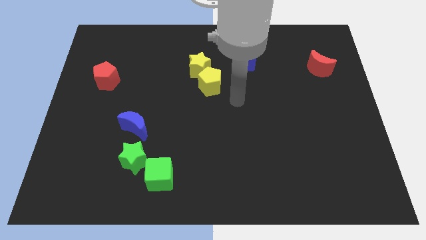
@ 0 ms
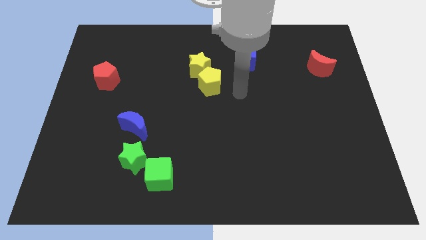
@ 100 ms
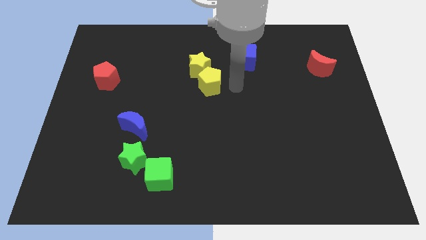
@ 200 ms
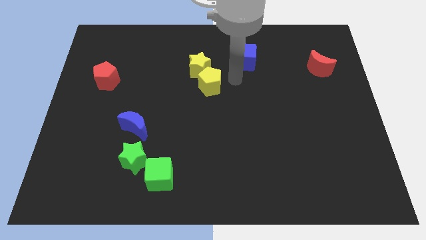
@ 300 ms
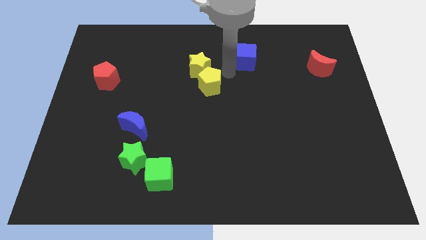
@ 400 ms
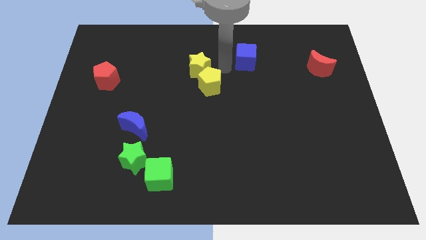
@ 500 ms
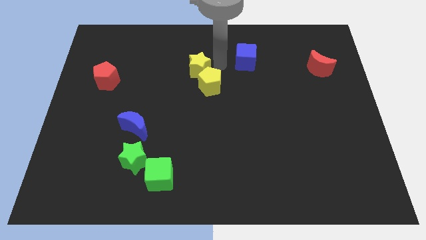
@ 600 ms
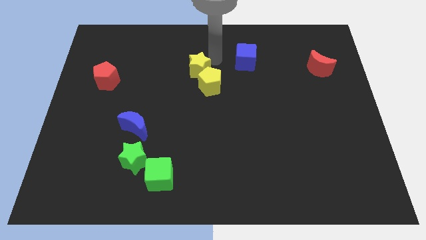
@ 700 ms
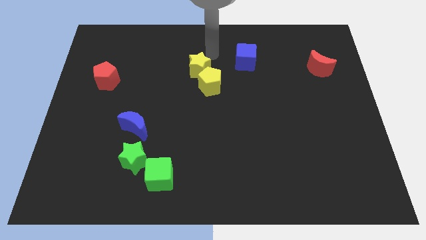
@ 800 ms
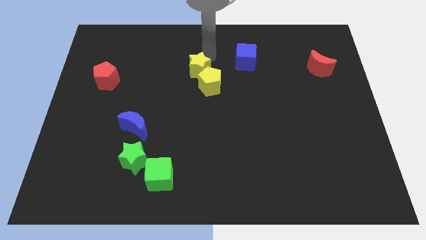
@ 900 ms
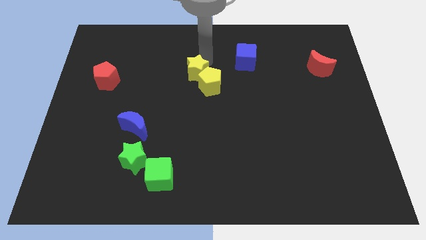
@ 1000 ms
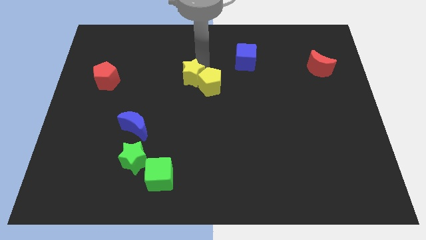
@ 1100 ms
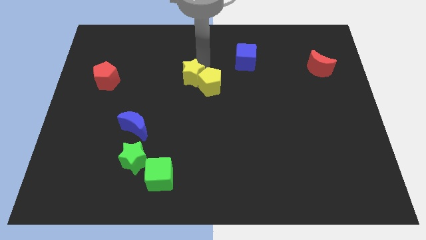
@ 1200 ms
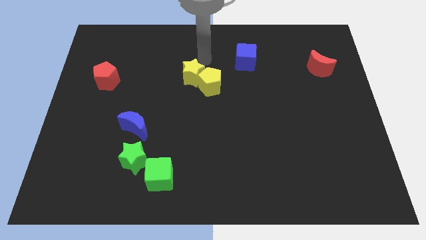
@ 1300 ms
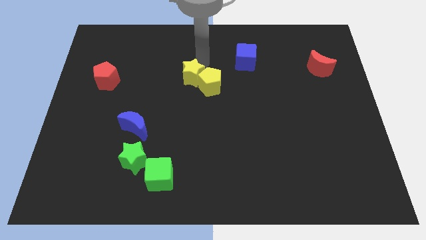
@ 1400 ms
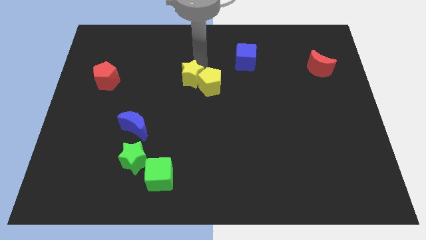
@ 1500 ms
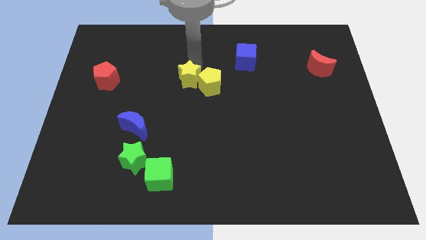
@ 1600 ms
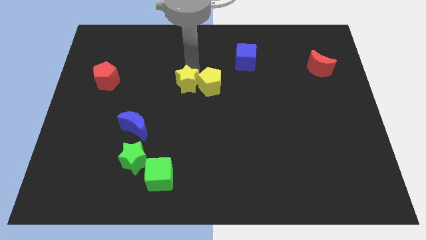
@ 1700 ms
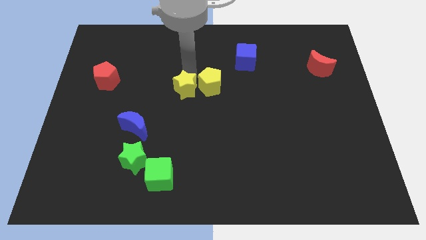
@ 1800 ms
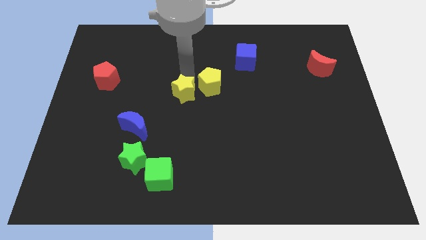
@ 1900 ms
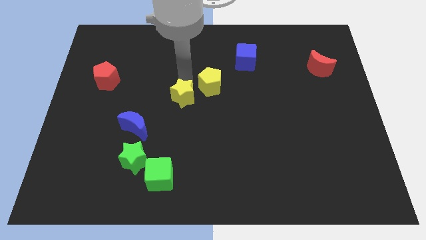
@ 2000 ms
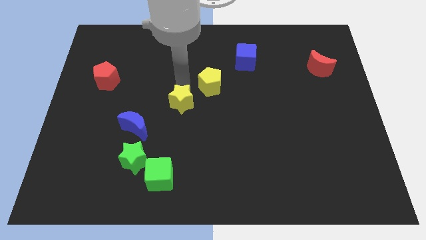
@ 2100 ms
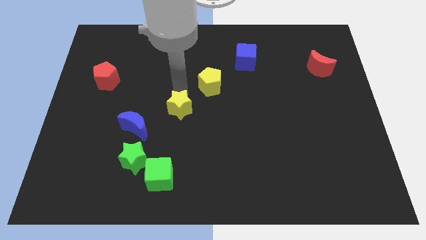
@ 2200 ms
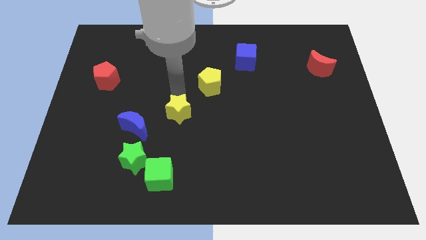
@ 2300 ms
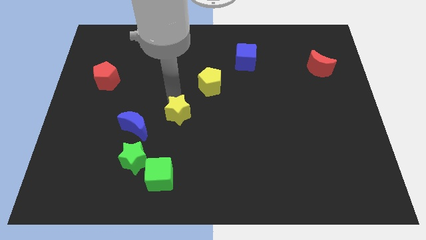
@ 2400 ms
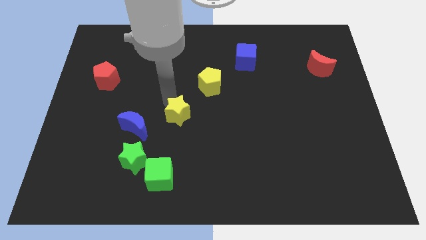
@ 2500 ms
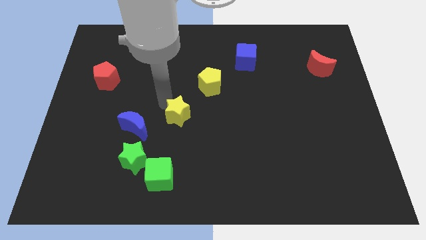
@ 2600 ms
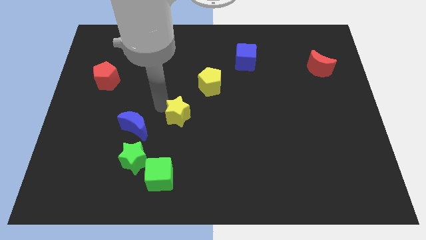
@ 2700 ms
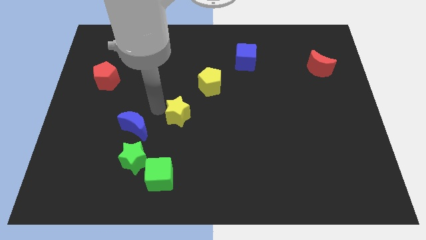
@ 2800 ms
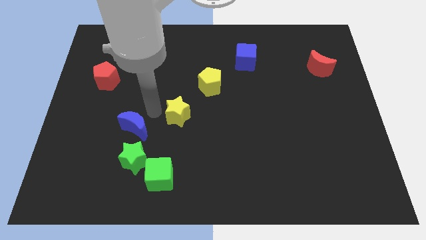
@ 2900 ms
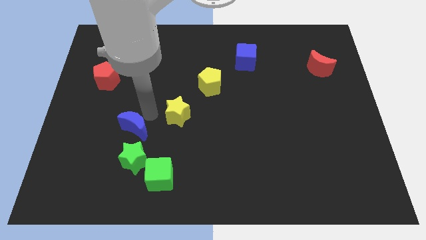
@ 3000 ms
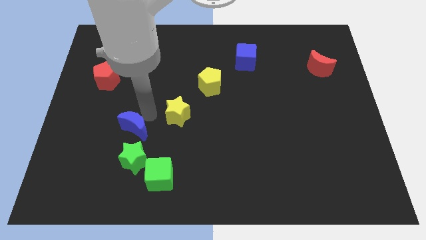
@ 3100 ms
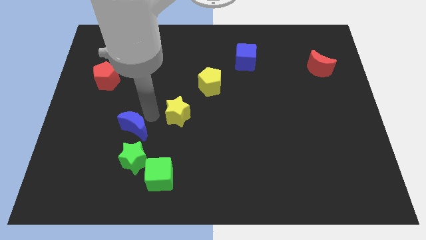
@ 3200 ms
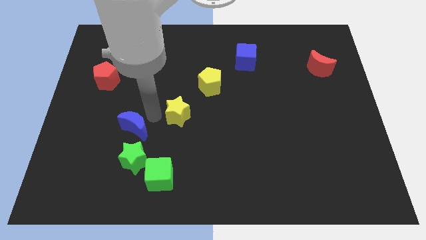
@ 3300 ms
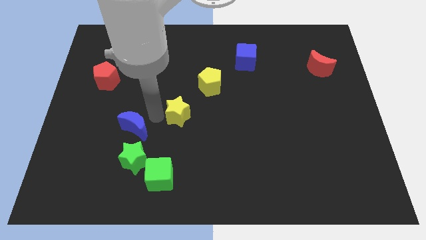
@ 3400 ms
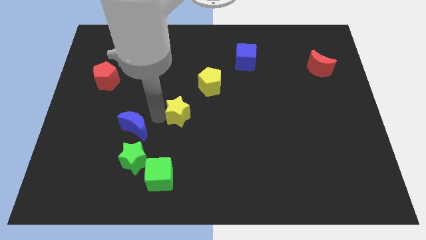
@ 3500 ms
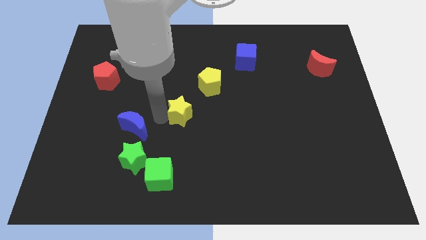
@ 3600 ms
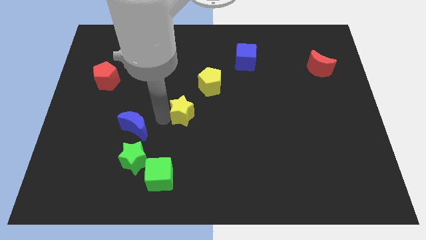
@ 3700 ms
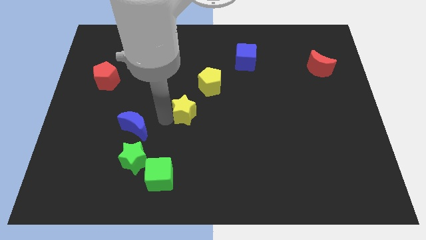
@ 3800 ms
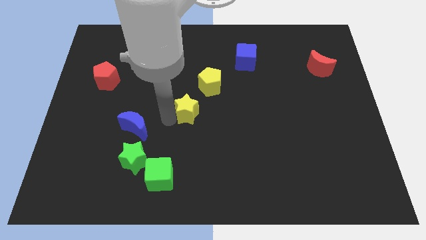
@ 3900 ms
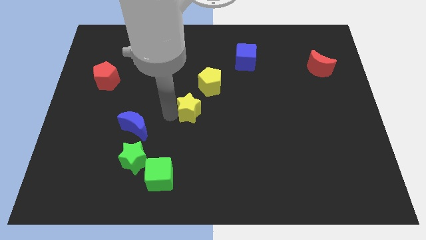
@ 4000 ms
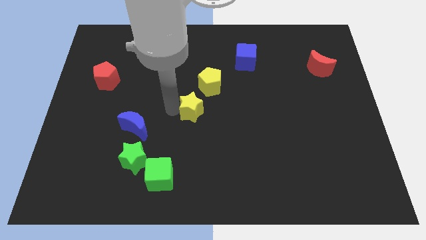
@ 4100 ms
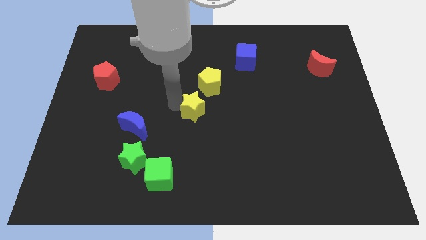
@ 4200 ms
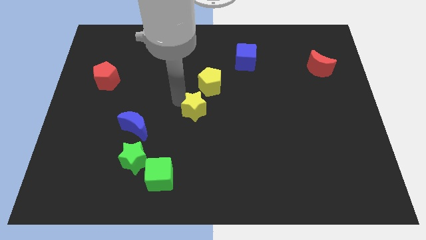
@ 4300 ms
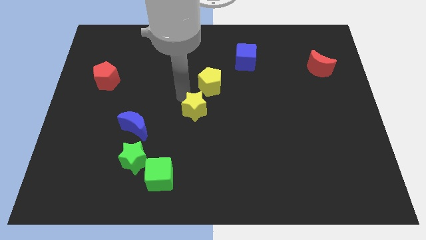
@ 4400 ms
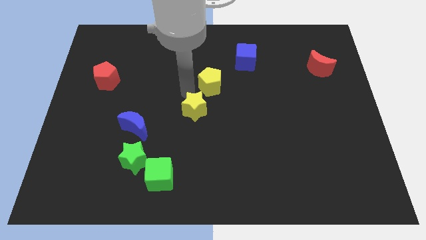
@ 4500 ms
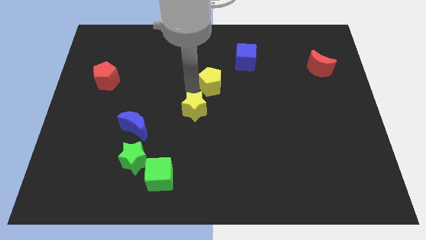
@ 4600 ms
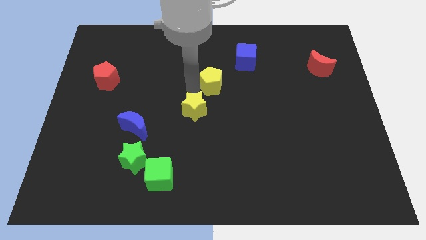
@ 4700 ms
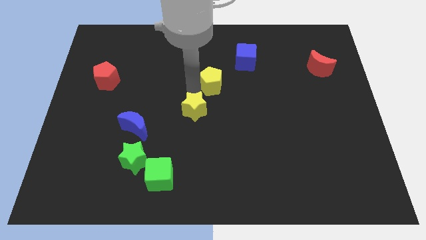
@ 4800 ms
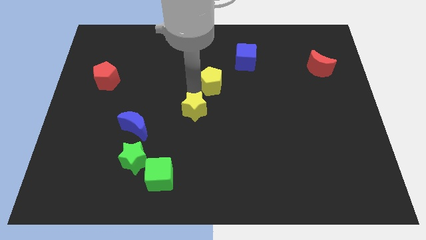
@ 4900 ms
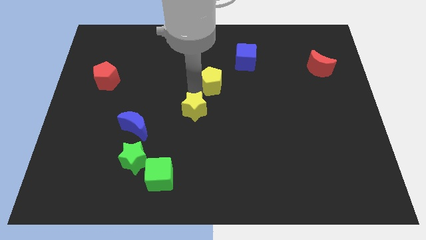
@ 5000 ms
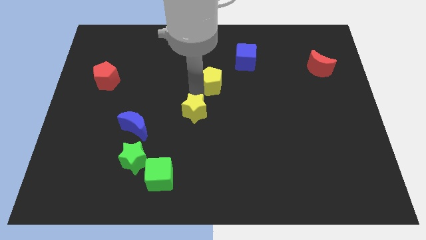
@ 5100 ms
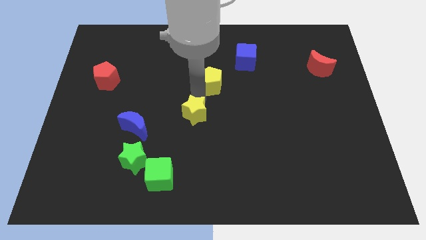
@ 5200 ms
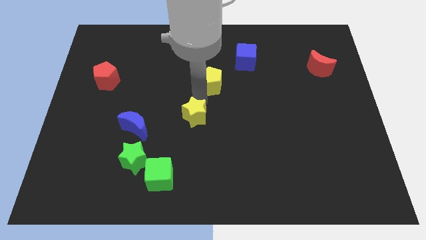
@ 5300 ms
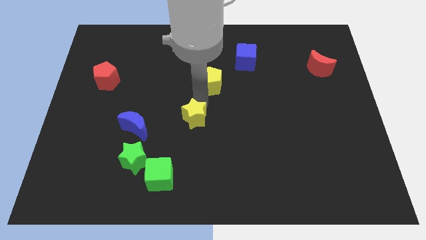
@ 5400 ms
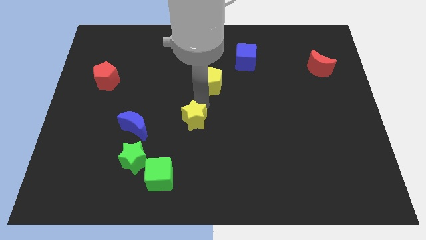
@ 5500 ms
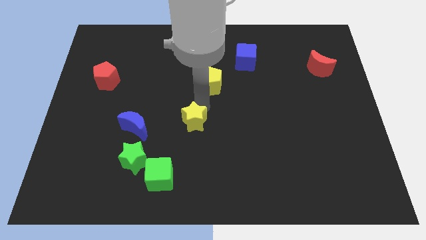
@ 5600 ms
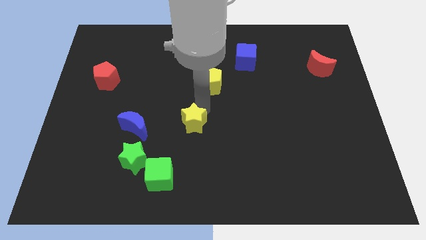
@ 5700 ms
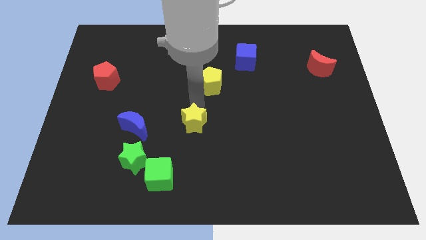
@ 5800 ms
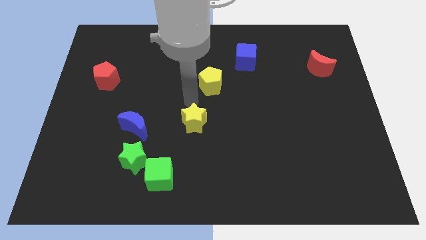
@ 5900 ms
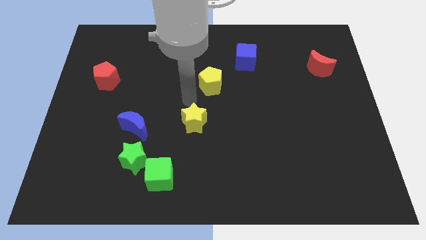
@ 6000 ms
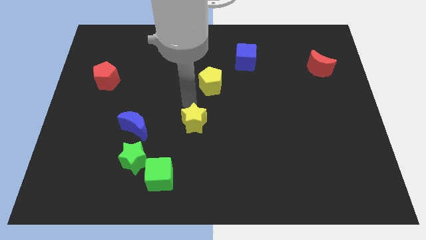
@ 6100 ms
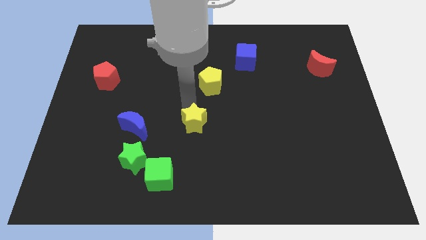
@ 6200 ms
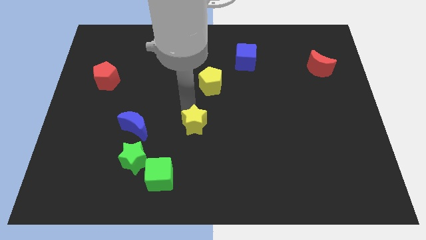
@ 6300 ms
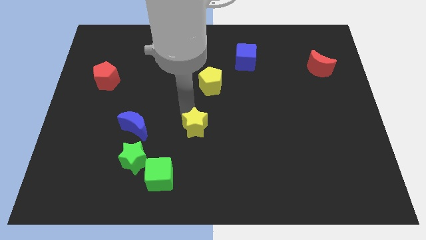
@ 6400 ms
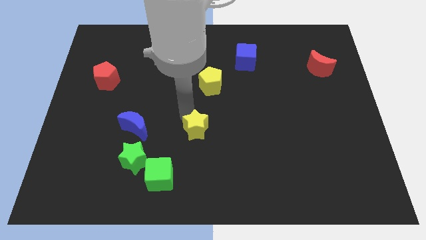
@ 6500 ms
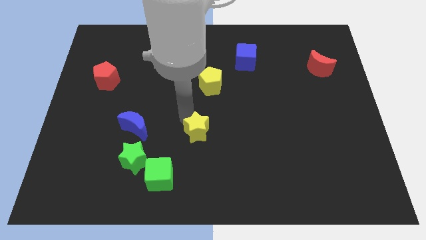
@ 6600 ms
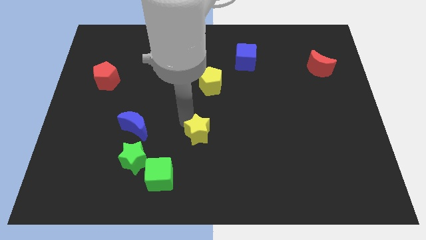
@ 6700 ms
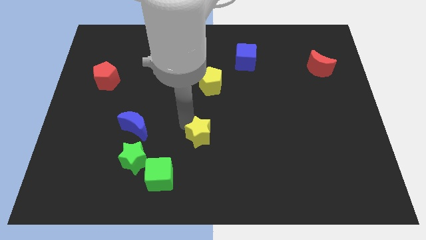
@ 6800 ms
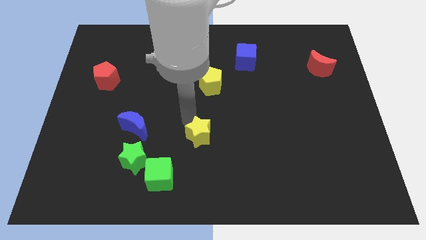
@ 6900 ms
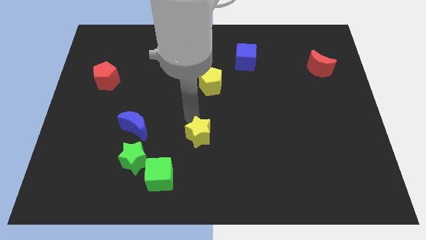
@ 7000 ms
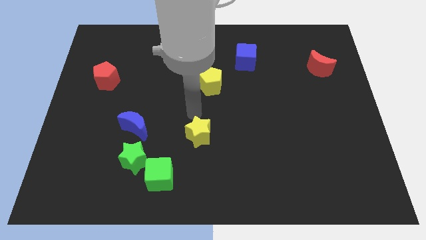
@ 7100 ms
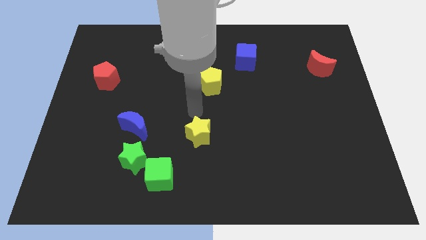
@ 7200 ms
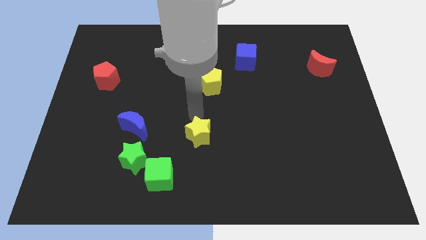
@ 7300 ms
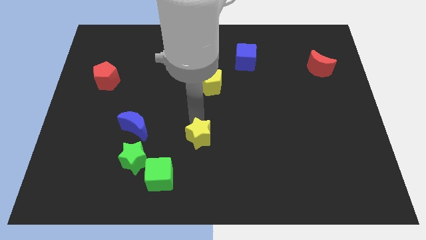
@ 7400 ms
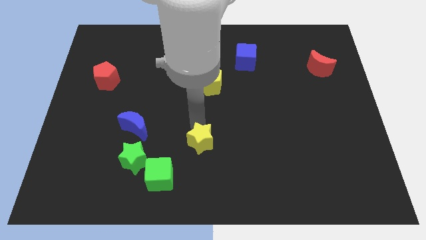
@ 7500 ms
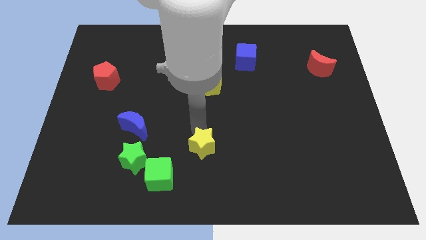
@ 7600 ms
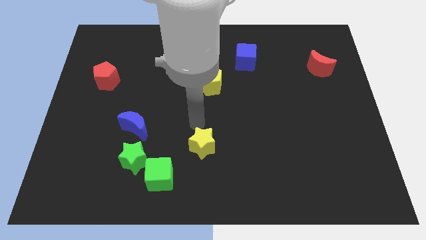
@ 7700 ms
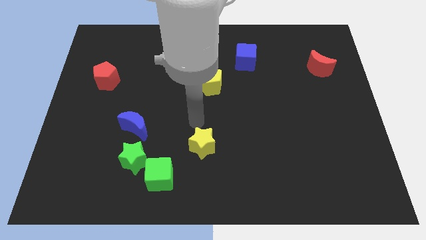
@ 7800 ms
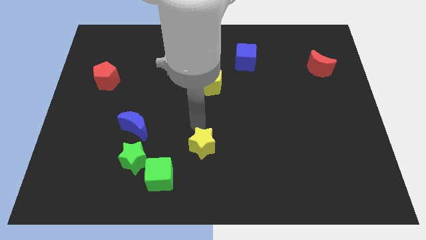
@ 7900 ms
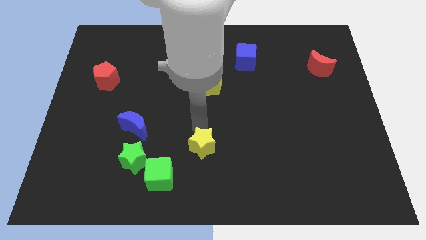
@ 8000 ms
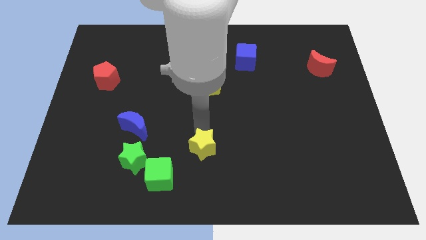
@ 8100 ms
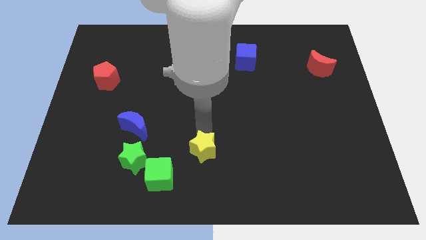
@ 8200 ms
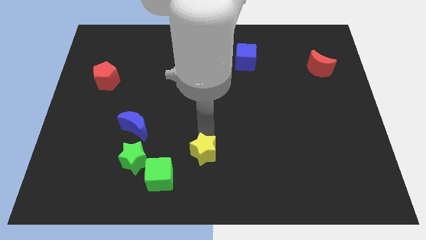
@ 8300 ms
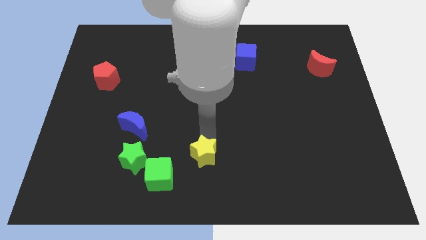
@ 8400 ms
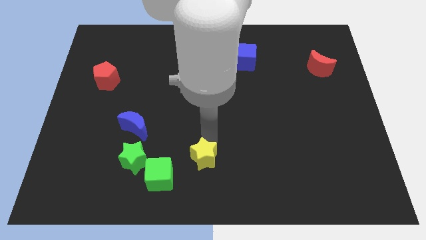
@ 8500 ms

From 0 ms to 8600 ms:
slide the yellow star to the right side of the green cube

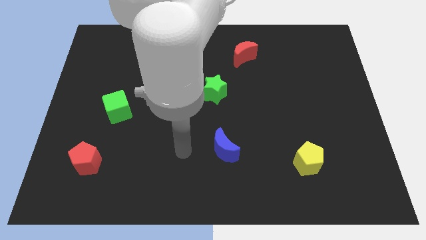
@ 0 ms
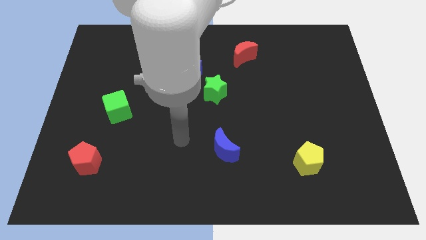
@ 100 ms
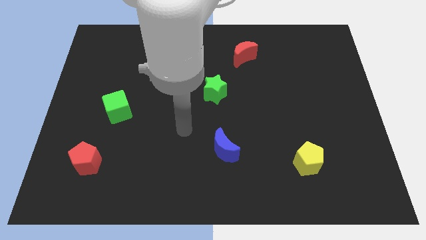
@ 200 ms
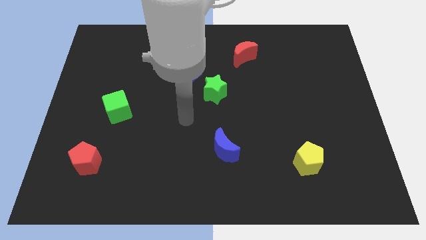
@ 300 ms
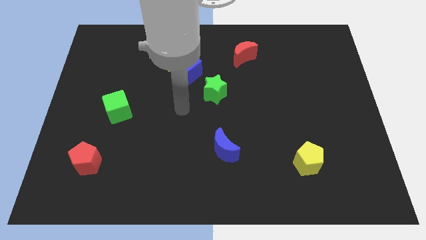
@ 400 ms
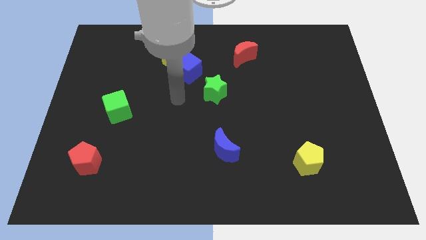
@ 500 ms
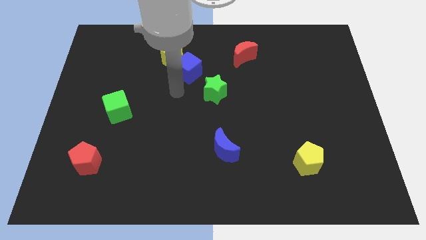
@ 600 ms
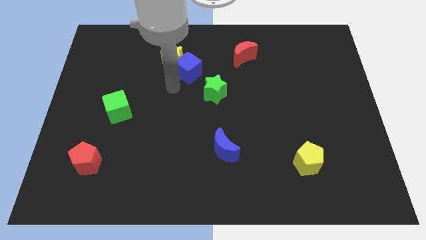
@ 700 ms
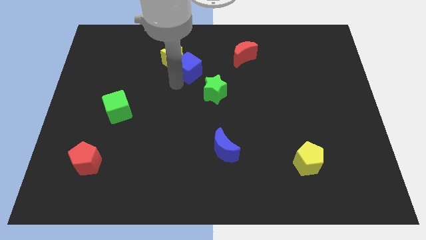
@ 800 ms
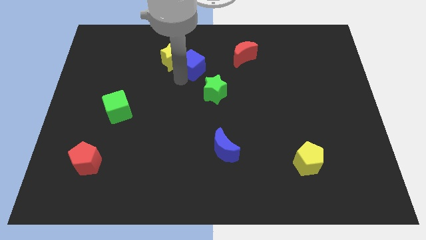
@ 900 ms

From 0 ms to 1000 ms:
slide the blue cube just left of the red moon
